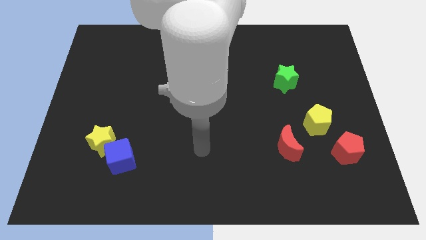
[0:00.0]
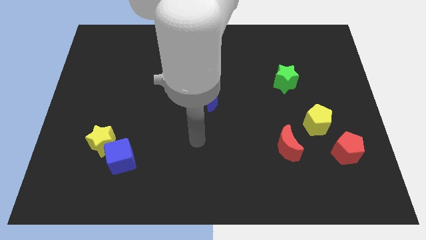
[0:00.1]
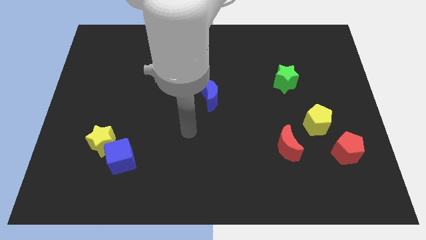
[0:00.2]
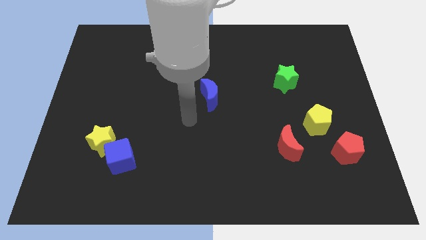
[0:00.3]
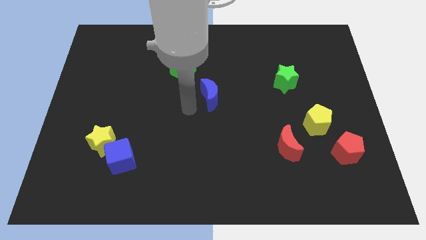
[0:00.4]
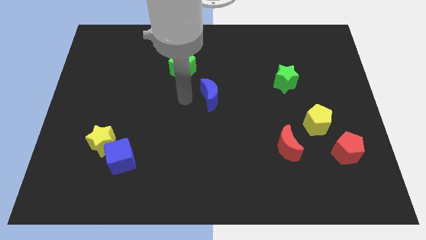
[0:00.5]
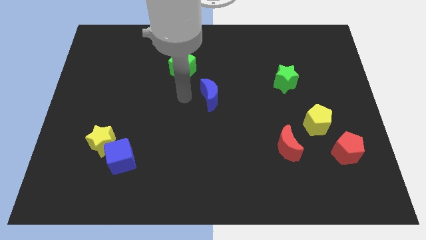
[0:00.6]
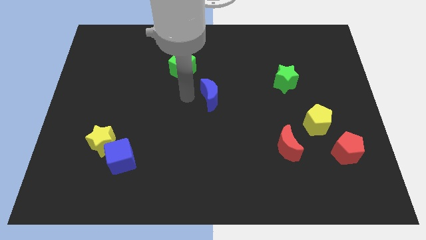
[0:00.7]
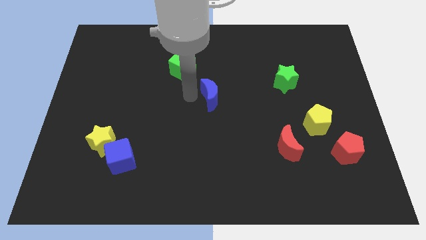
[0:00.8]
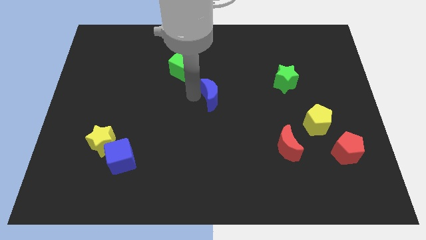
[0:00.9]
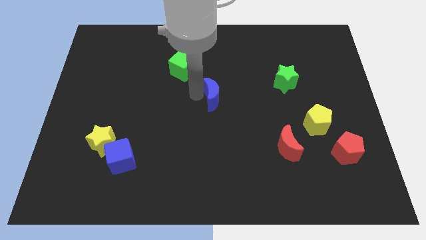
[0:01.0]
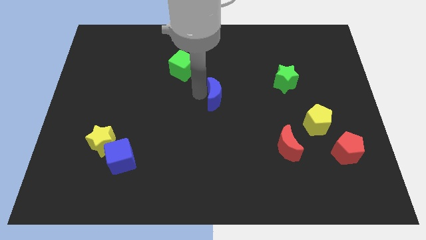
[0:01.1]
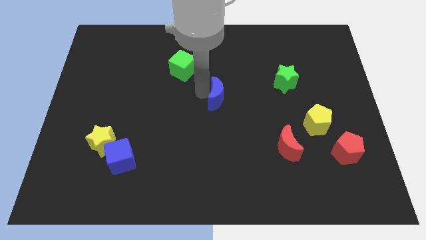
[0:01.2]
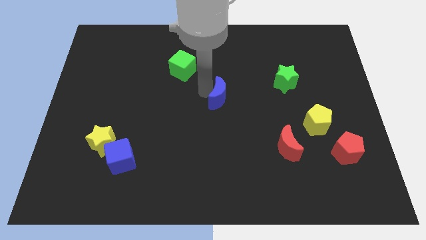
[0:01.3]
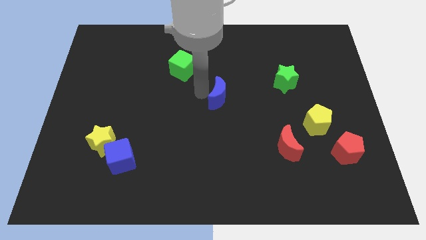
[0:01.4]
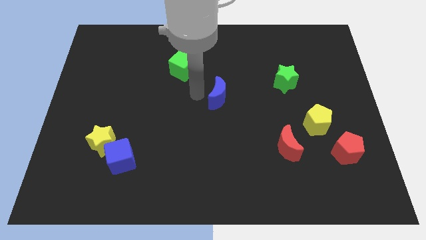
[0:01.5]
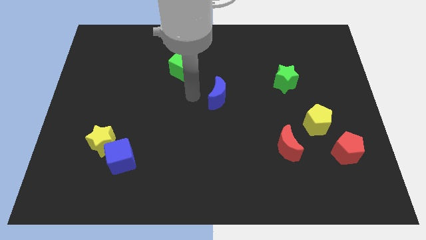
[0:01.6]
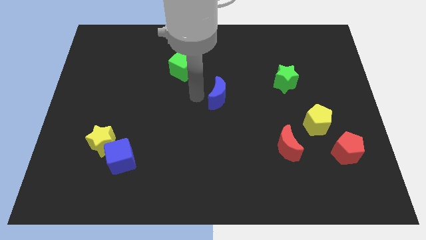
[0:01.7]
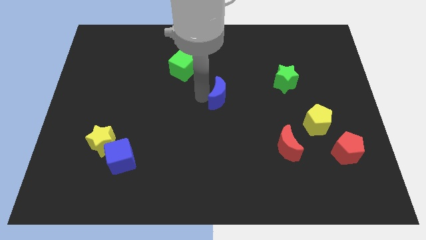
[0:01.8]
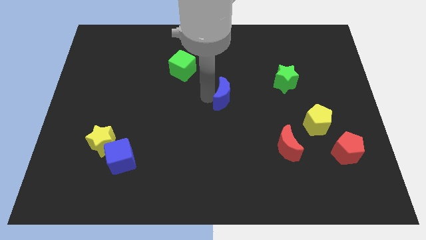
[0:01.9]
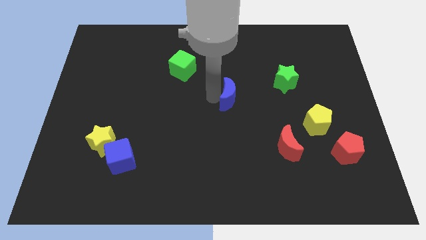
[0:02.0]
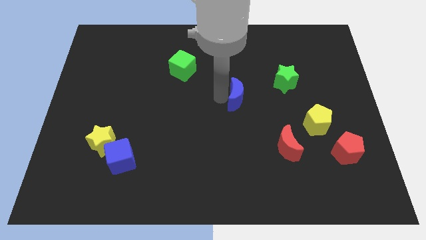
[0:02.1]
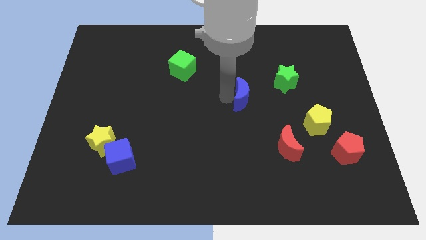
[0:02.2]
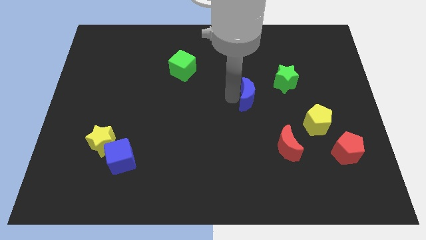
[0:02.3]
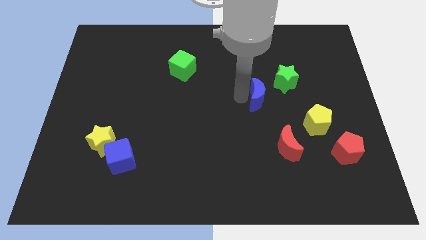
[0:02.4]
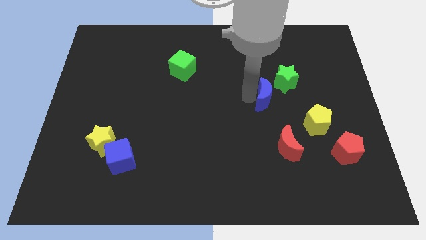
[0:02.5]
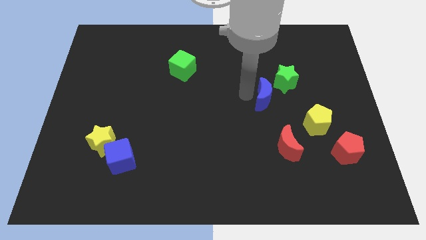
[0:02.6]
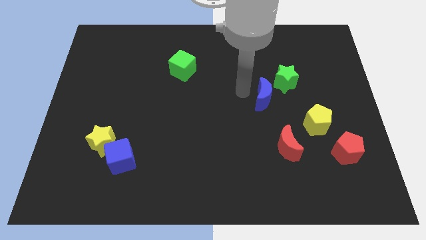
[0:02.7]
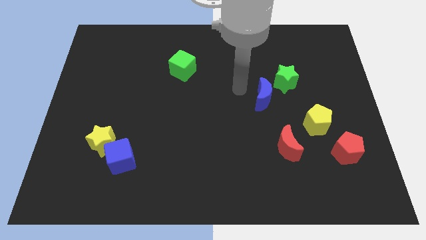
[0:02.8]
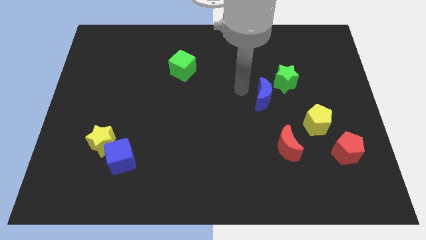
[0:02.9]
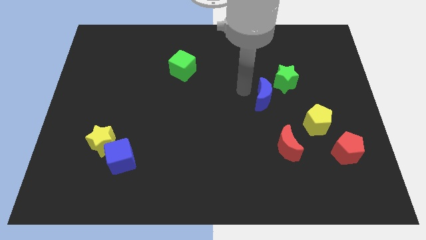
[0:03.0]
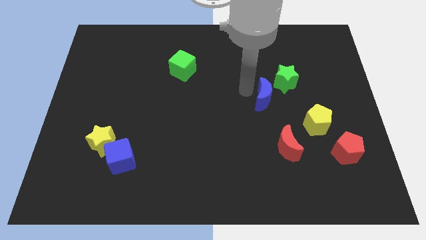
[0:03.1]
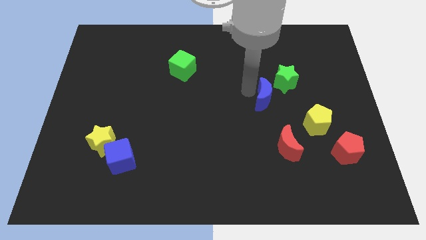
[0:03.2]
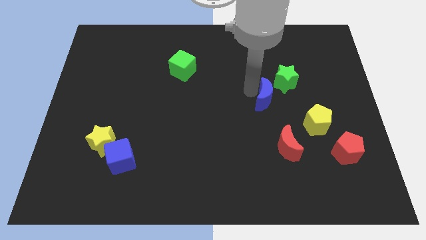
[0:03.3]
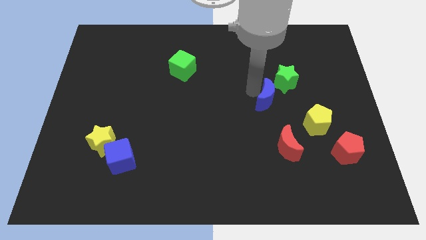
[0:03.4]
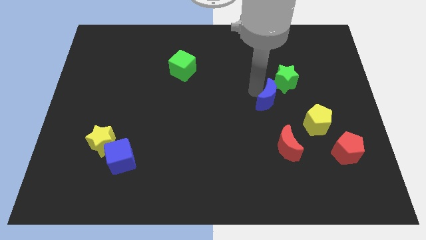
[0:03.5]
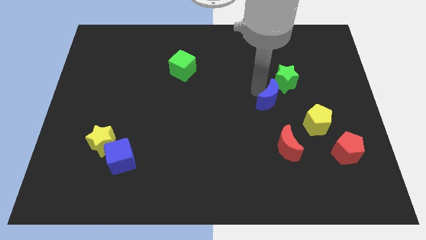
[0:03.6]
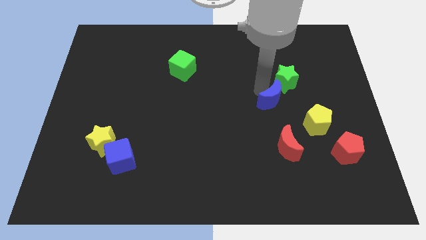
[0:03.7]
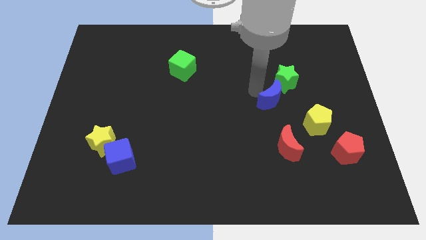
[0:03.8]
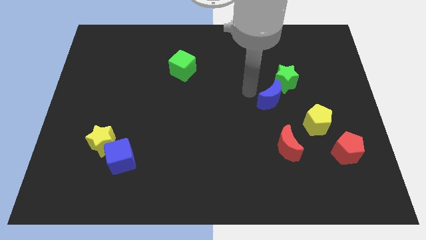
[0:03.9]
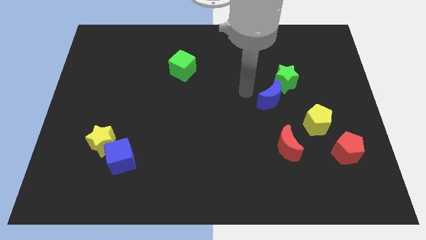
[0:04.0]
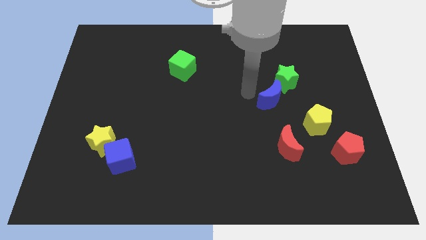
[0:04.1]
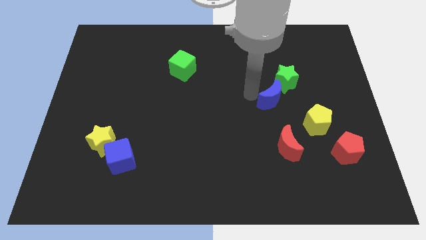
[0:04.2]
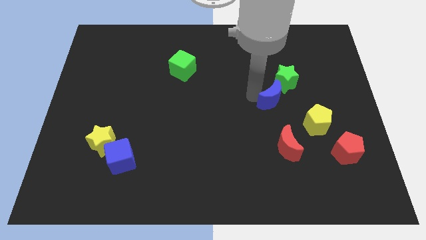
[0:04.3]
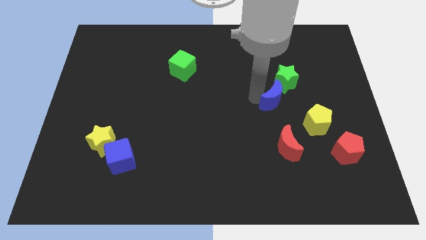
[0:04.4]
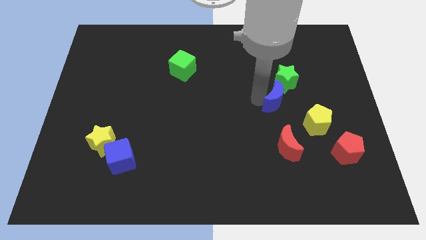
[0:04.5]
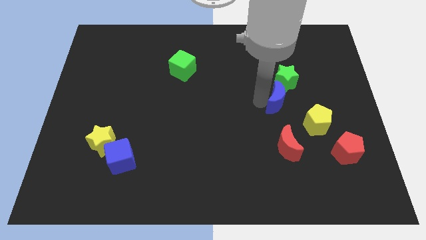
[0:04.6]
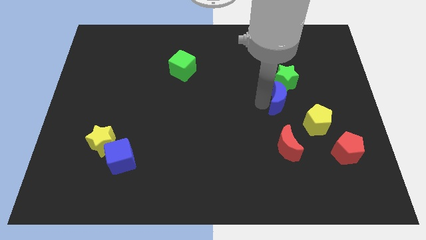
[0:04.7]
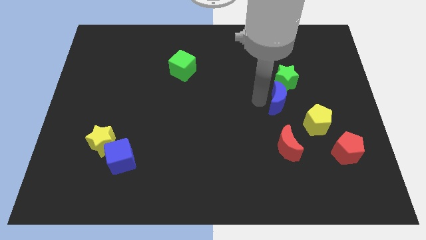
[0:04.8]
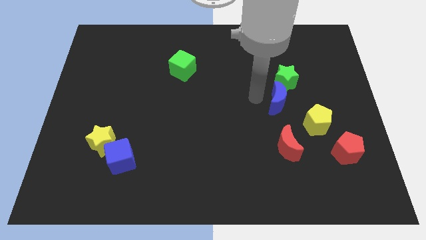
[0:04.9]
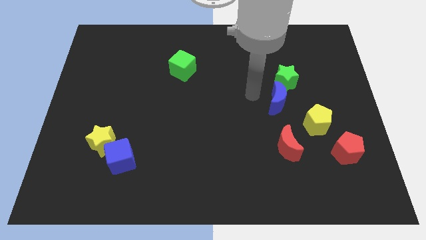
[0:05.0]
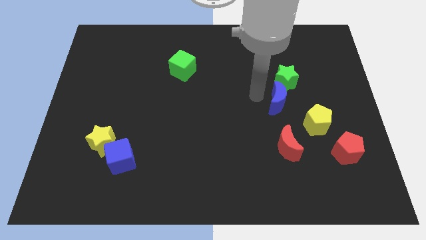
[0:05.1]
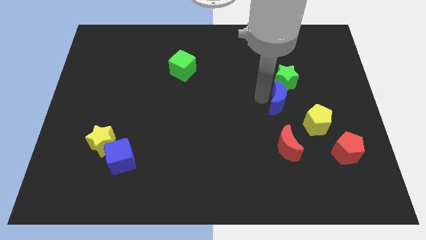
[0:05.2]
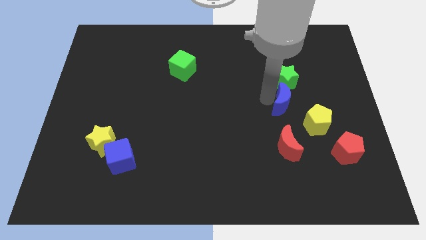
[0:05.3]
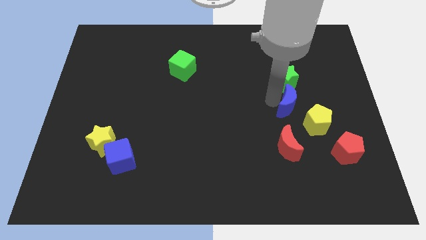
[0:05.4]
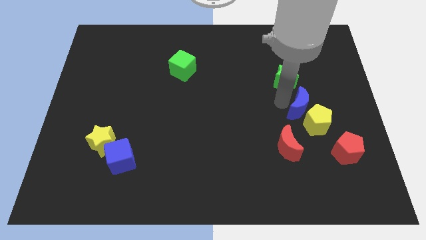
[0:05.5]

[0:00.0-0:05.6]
move the blue moon towards the yellow pentagon
